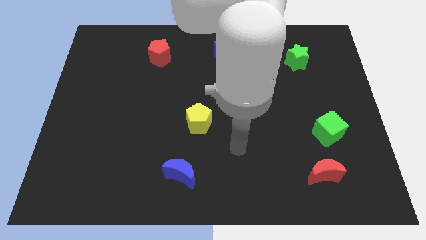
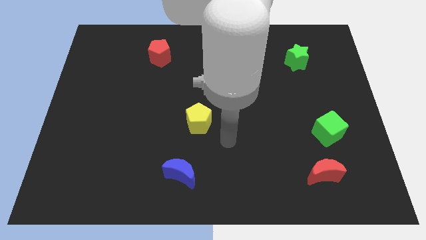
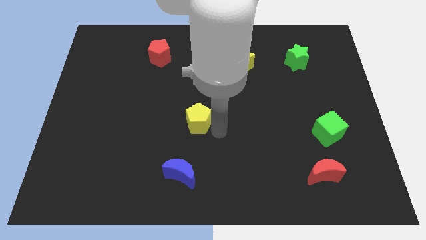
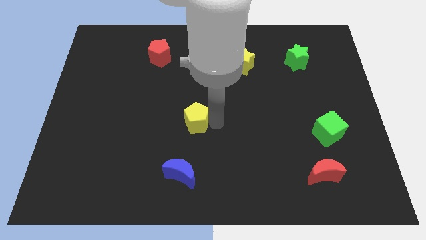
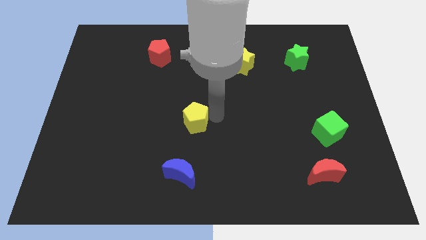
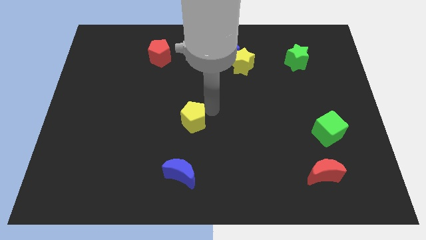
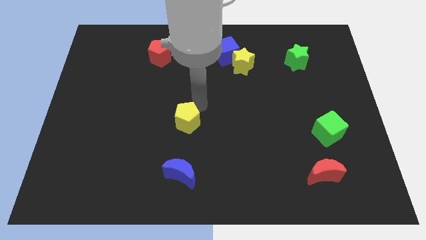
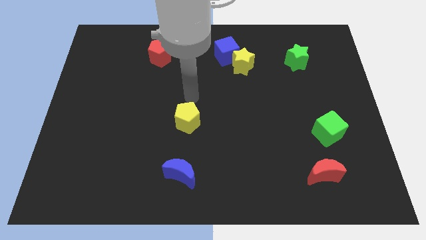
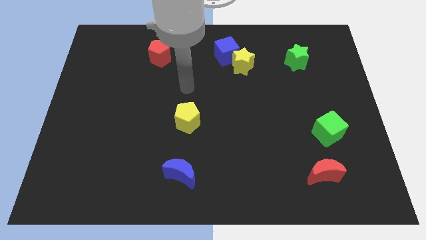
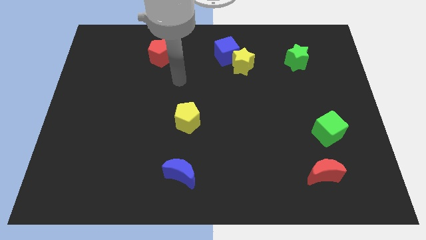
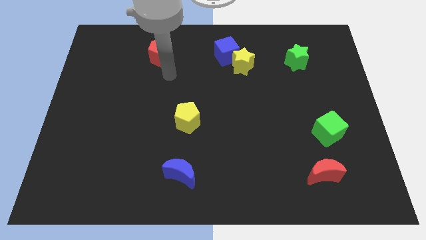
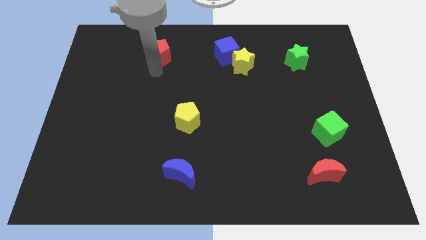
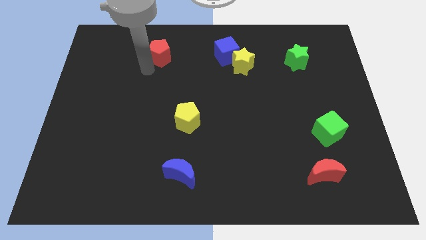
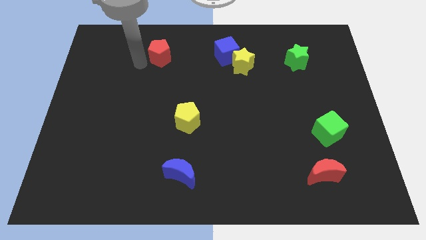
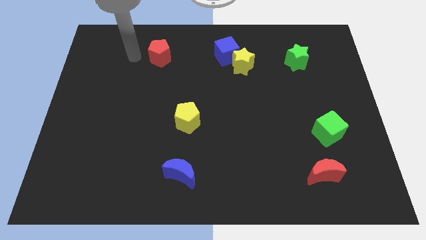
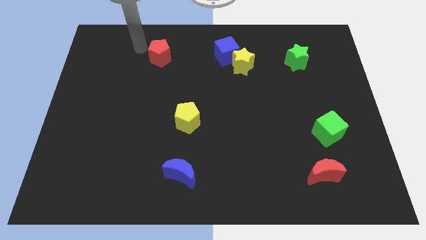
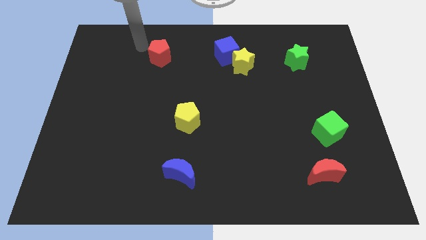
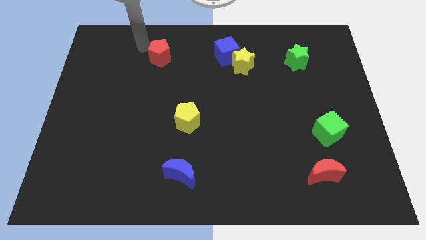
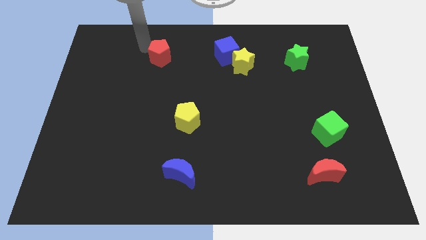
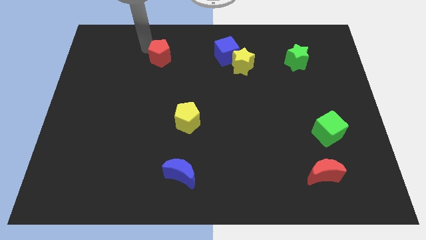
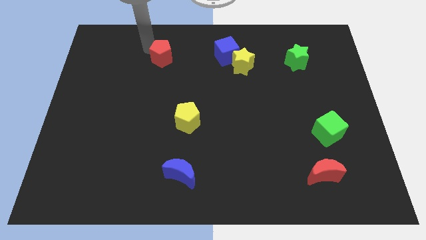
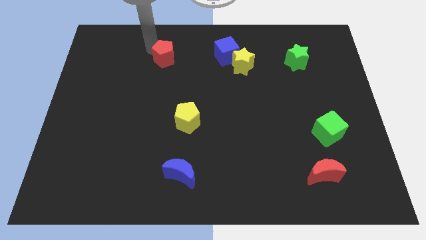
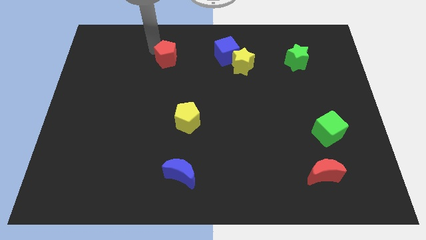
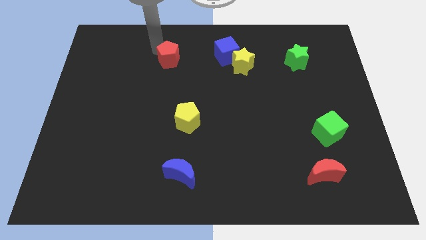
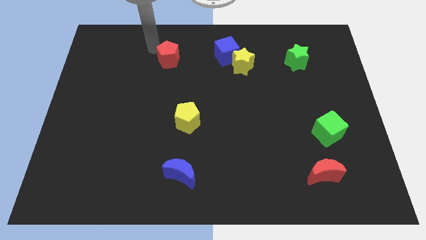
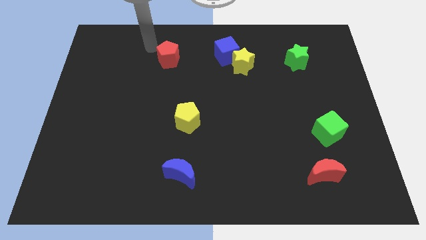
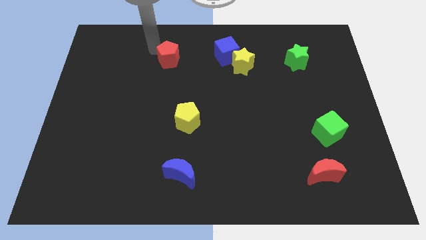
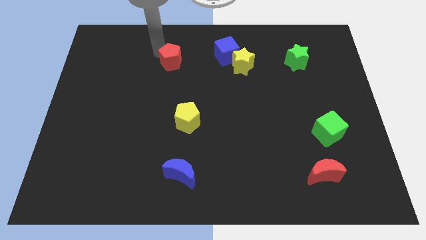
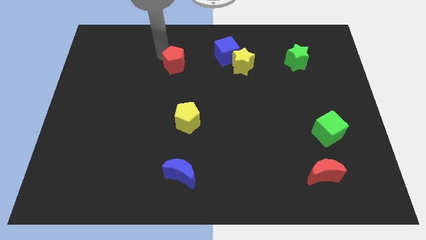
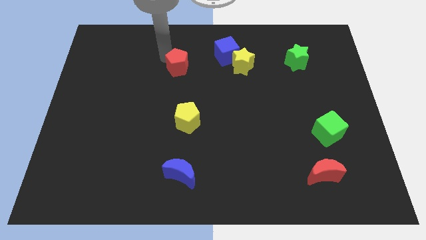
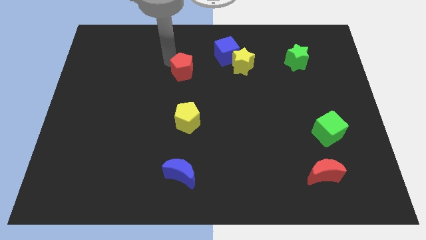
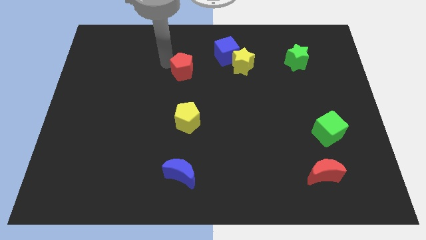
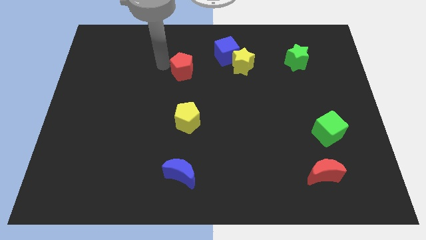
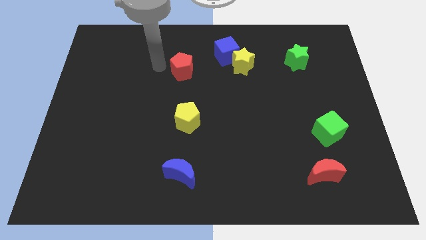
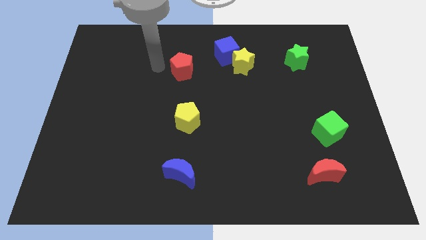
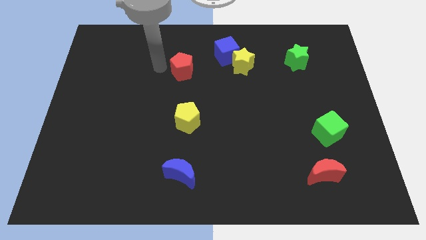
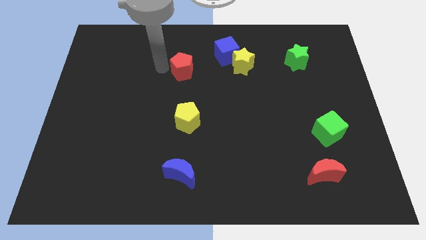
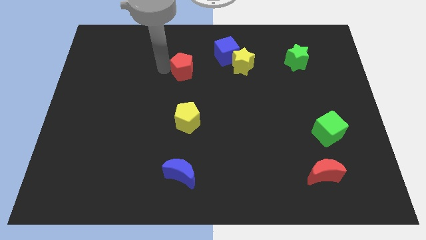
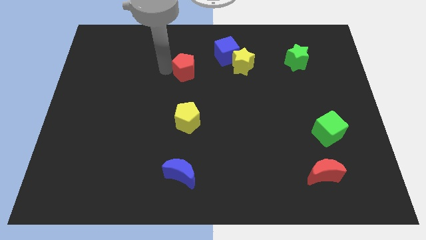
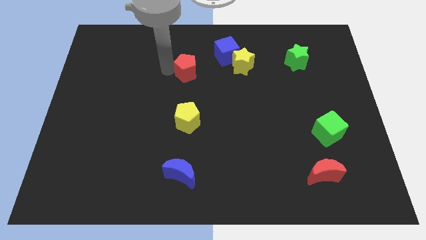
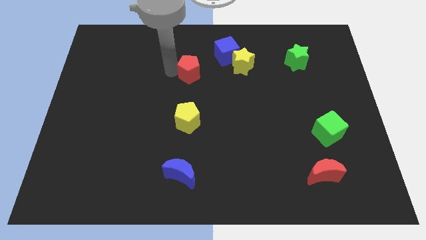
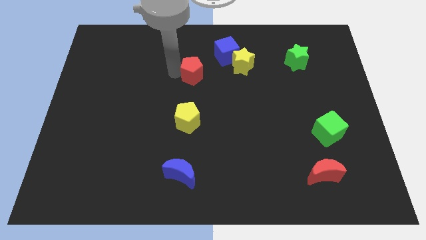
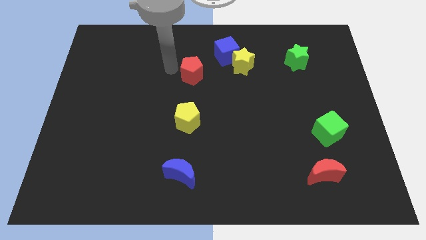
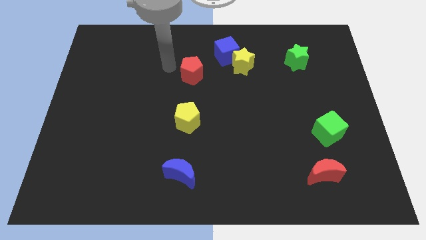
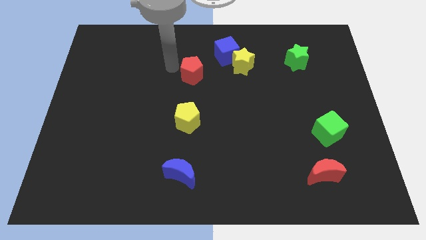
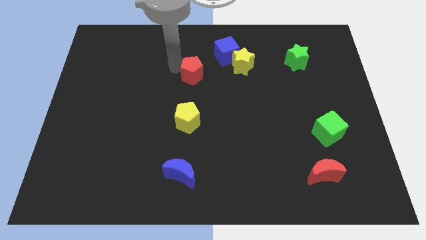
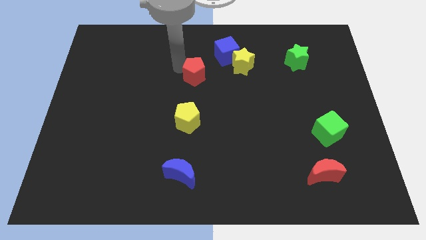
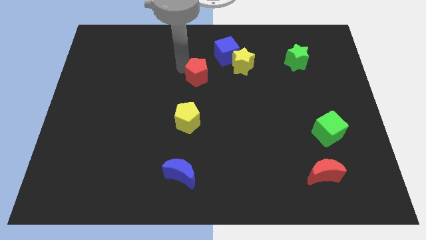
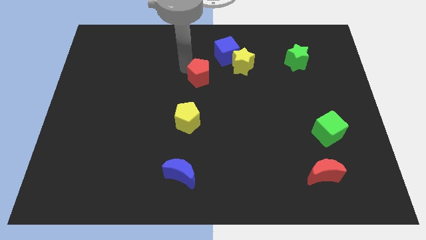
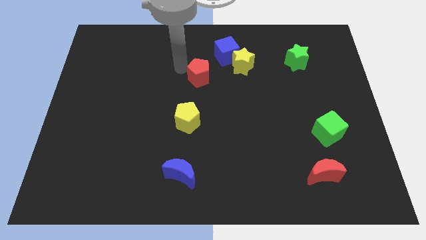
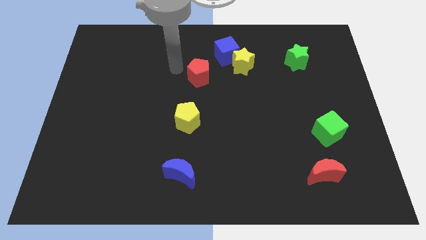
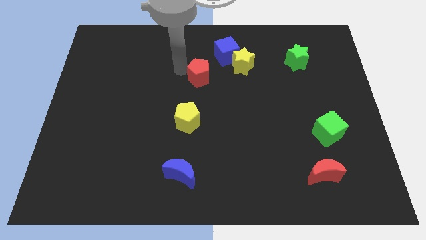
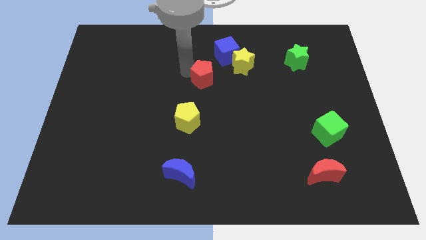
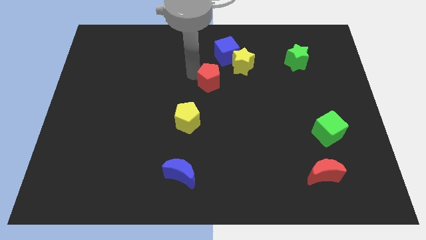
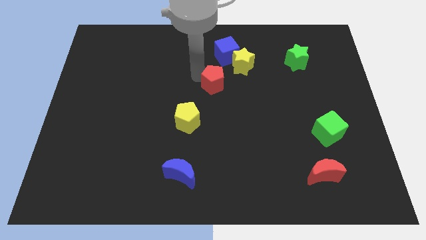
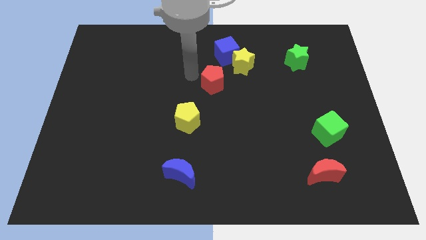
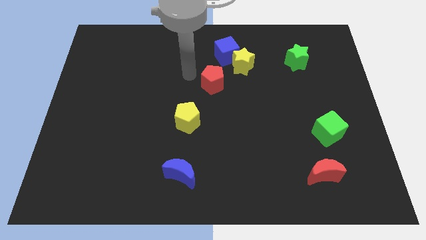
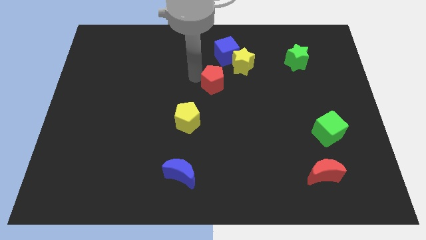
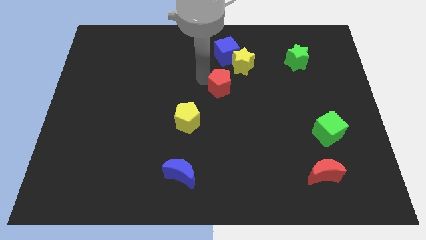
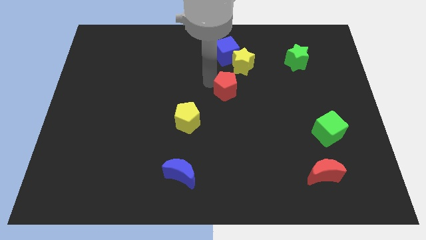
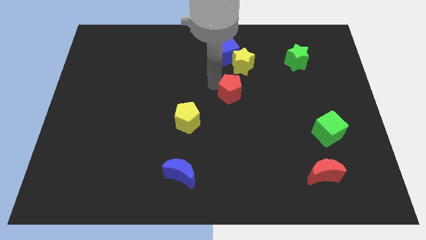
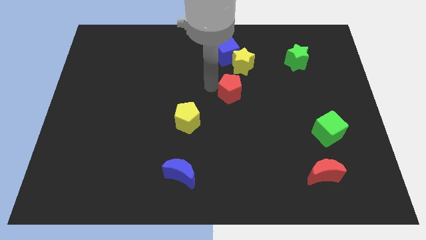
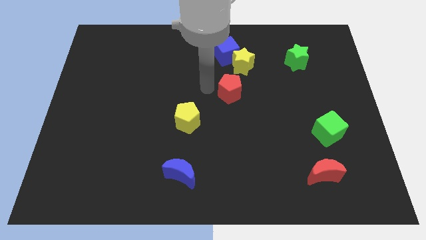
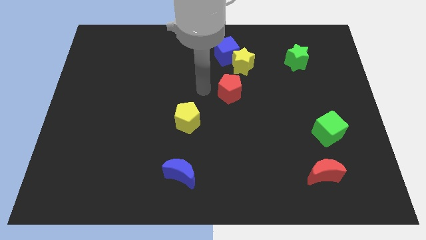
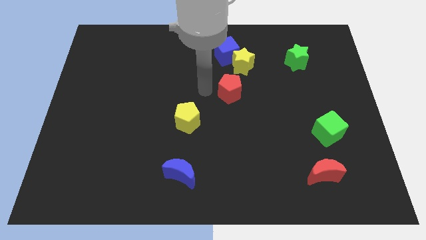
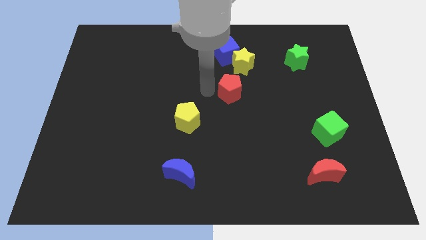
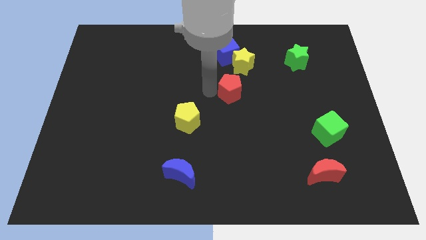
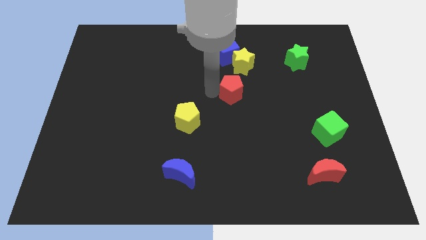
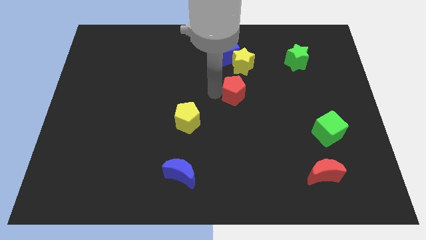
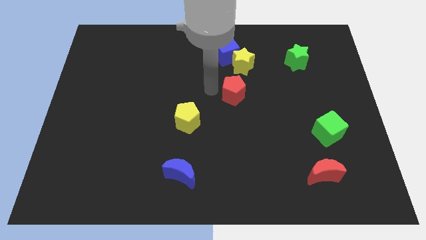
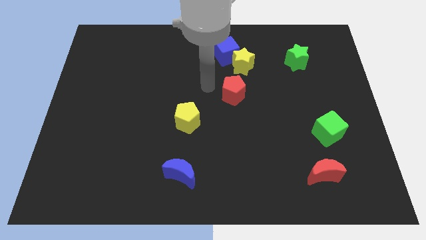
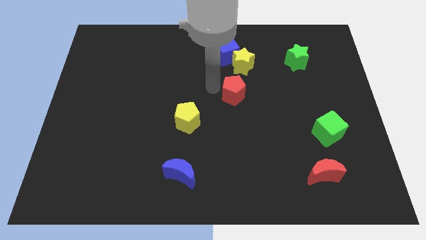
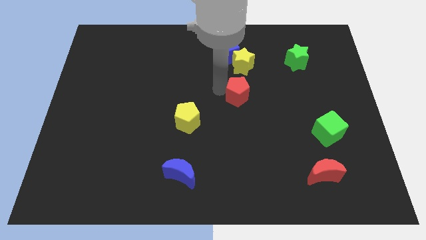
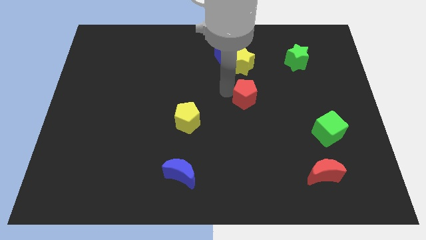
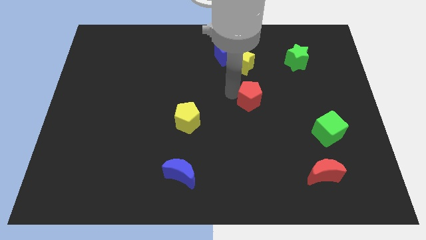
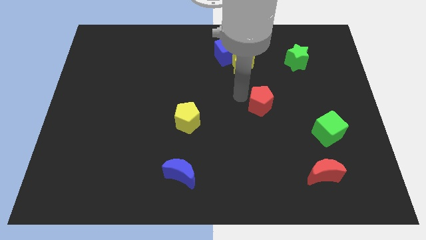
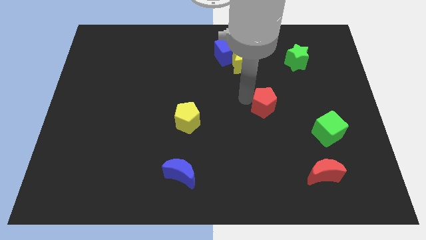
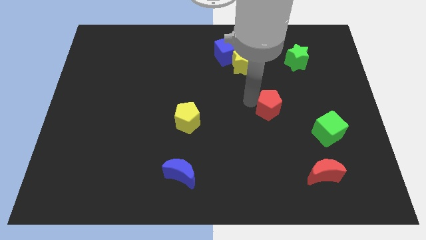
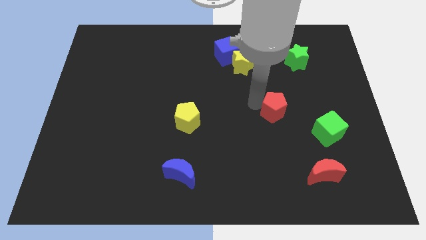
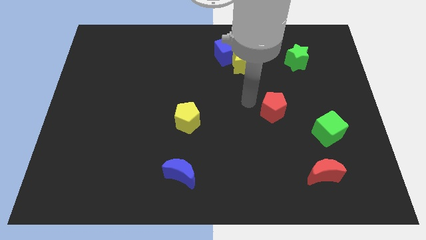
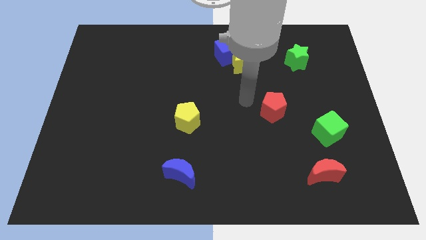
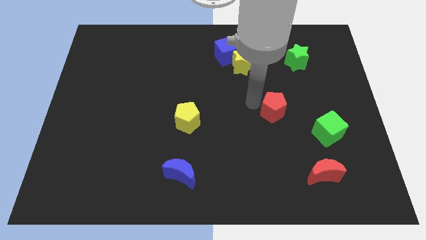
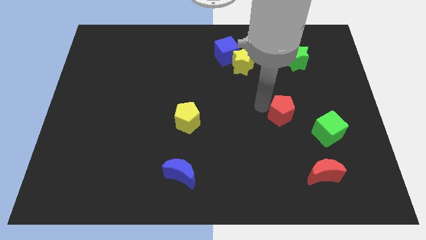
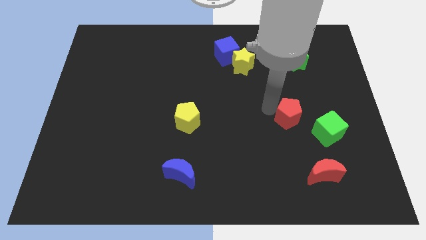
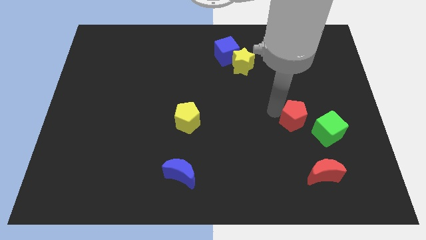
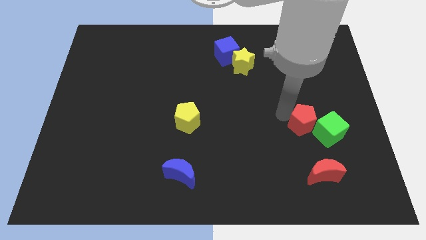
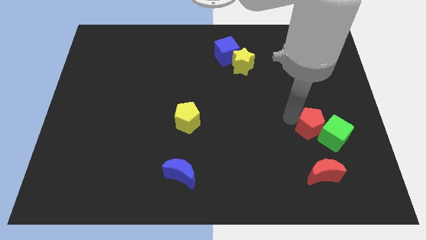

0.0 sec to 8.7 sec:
slide the red pentagon close to the green cube
